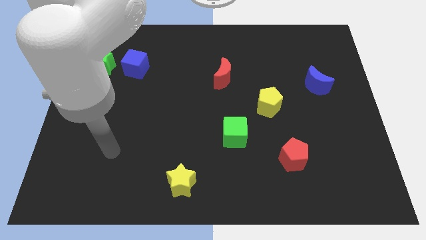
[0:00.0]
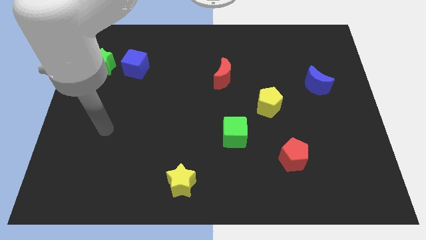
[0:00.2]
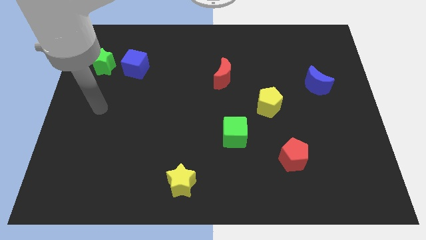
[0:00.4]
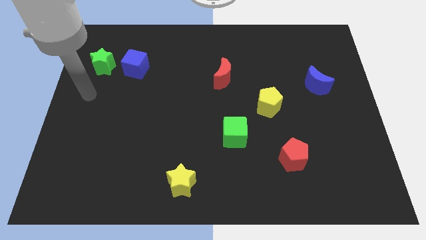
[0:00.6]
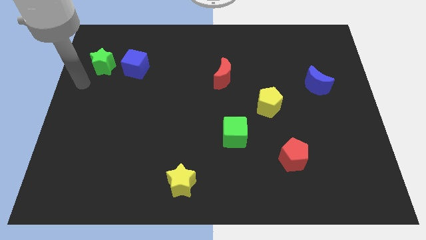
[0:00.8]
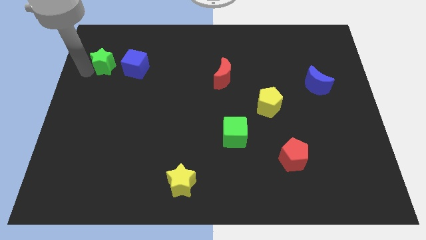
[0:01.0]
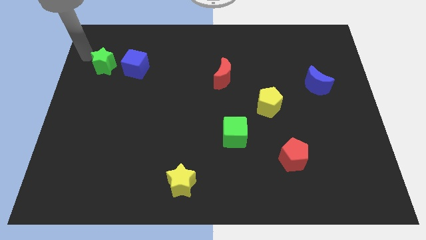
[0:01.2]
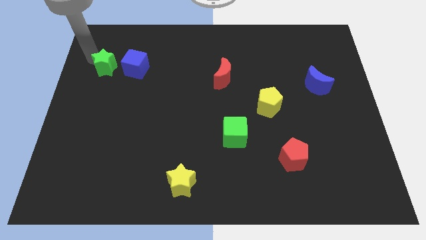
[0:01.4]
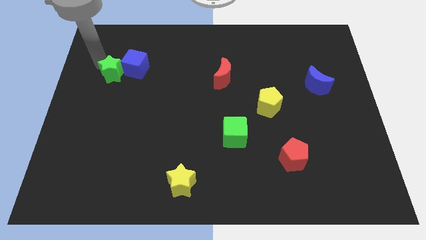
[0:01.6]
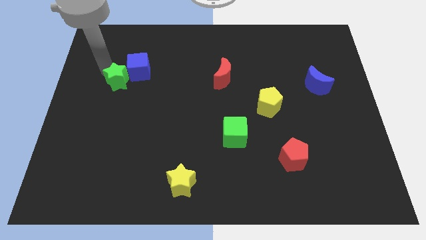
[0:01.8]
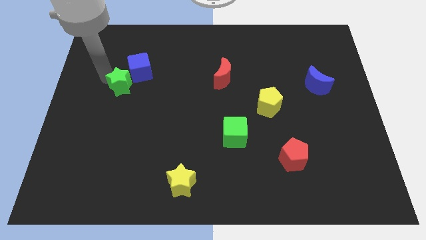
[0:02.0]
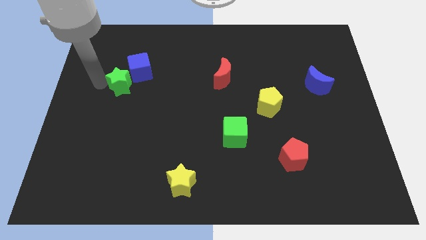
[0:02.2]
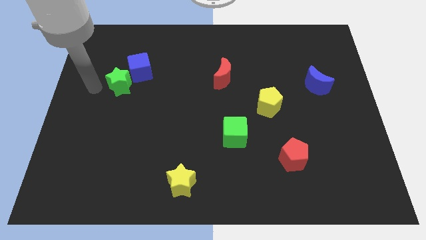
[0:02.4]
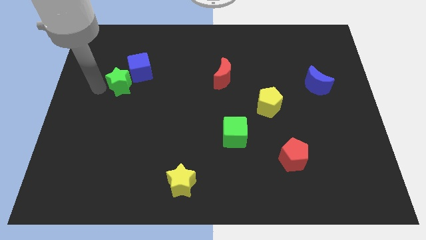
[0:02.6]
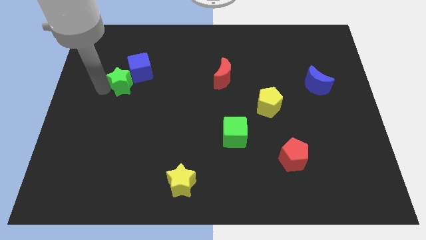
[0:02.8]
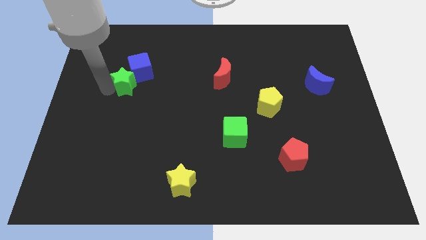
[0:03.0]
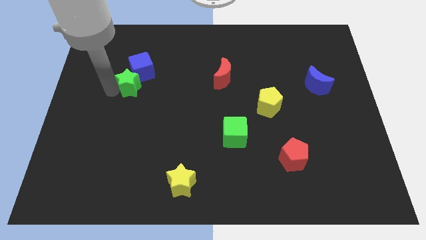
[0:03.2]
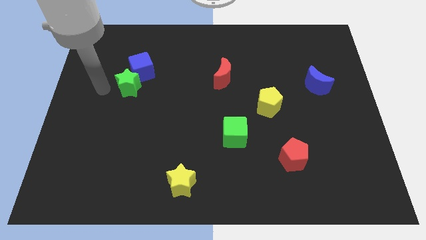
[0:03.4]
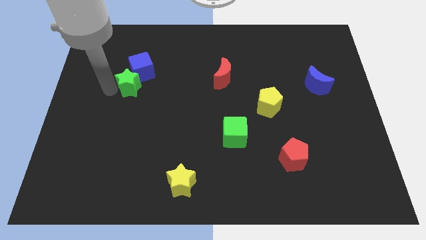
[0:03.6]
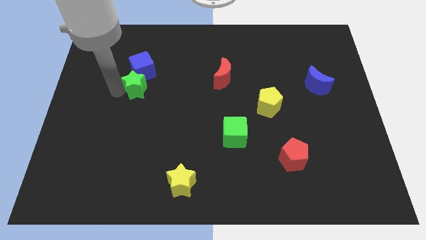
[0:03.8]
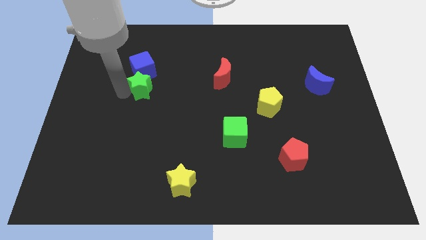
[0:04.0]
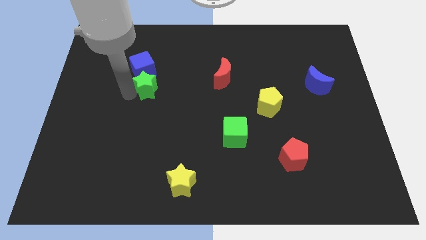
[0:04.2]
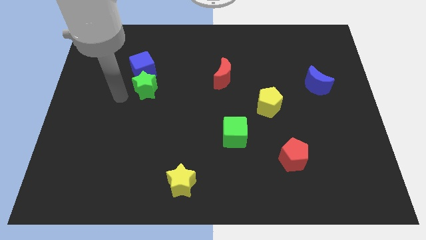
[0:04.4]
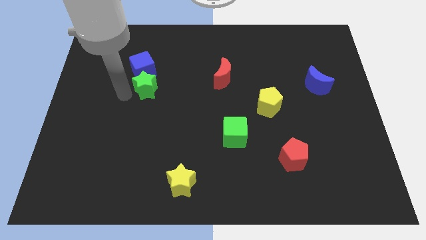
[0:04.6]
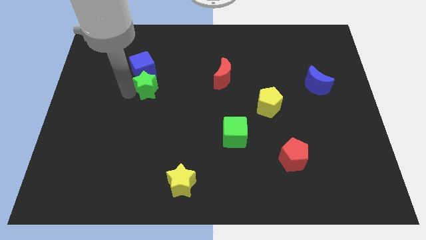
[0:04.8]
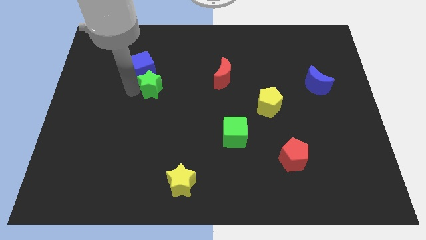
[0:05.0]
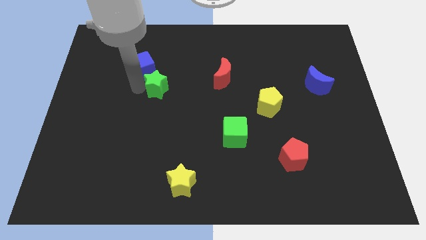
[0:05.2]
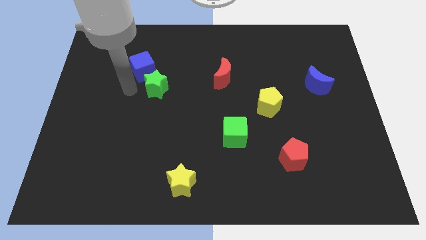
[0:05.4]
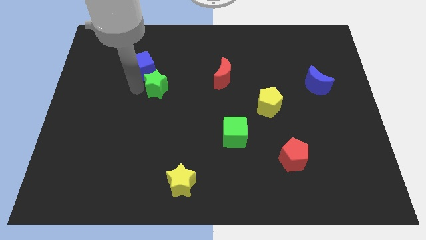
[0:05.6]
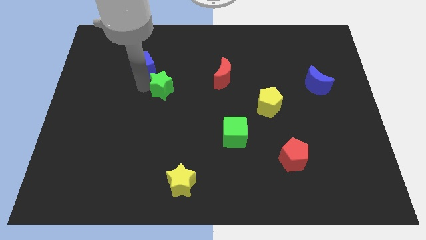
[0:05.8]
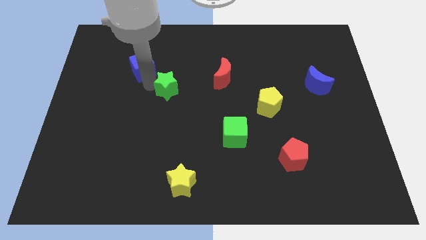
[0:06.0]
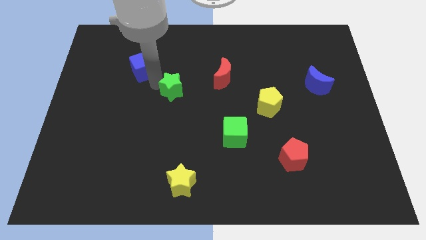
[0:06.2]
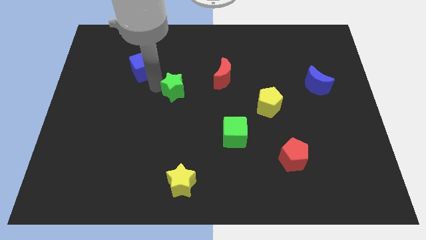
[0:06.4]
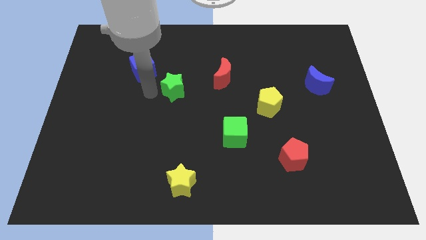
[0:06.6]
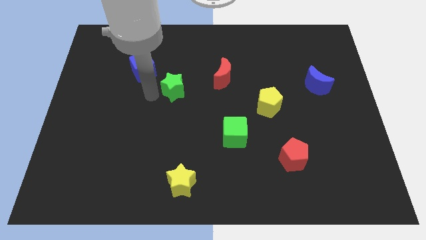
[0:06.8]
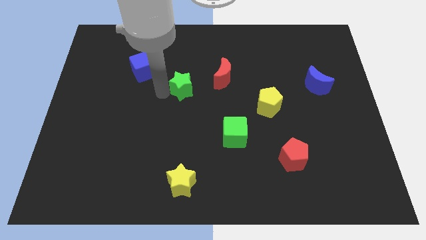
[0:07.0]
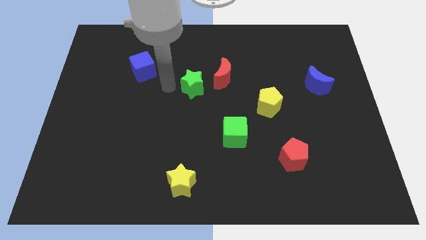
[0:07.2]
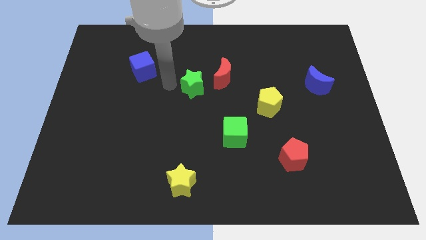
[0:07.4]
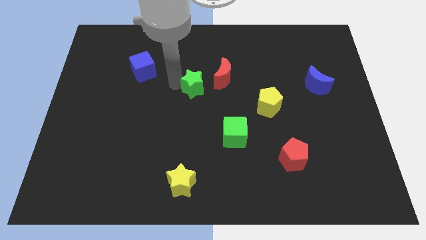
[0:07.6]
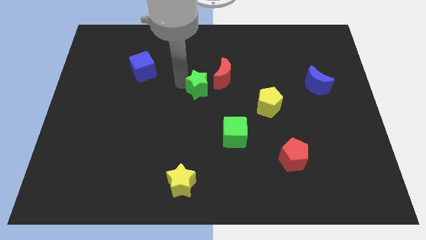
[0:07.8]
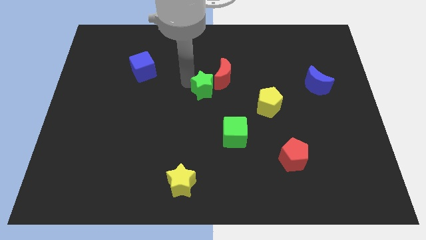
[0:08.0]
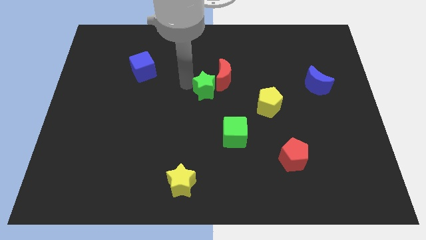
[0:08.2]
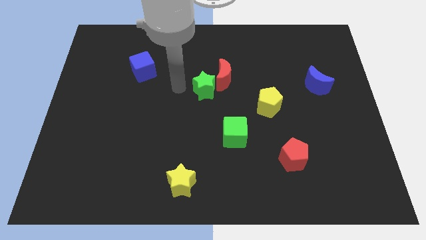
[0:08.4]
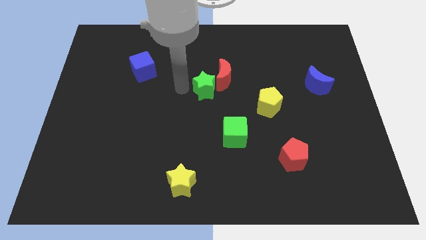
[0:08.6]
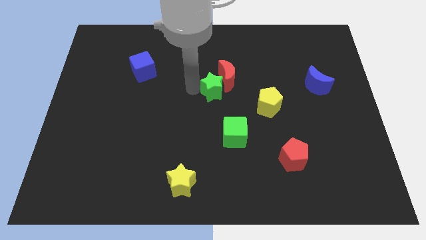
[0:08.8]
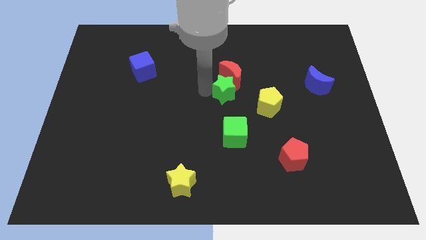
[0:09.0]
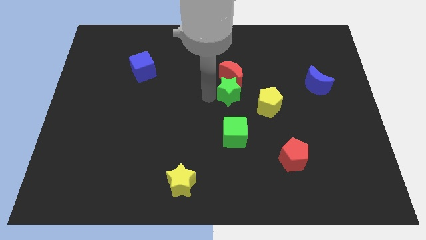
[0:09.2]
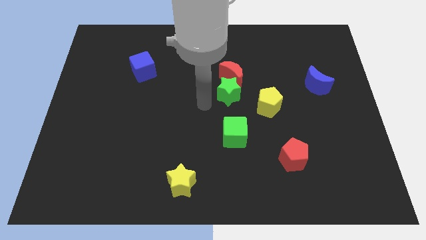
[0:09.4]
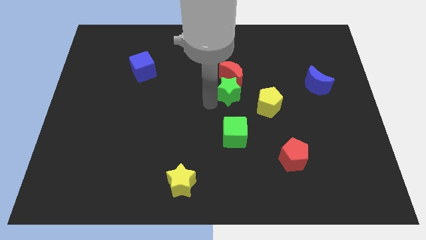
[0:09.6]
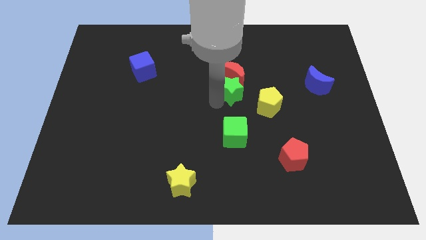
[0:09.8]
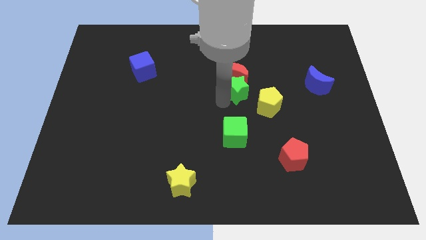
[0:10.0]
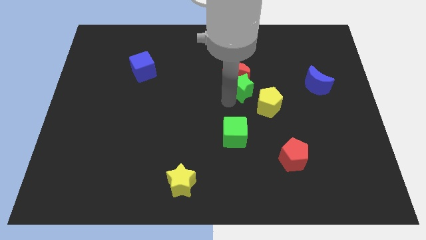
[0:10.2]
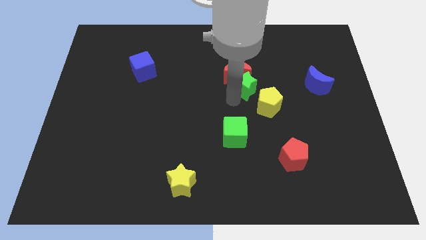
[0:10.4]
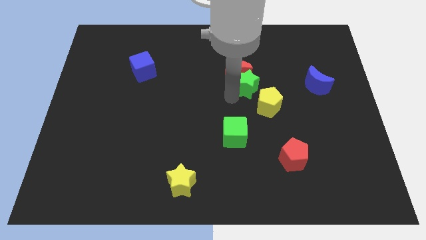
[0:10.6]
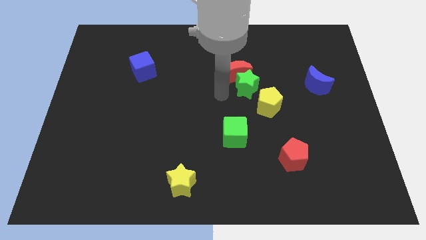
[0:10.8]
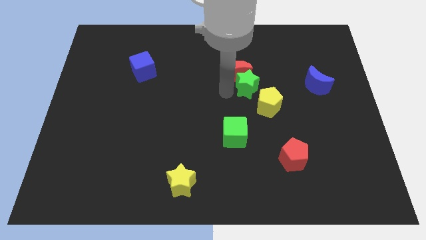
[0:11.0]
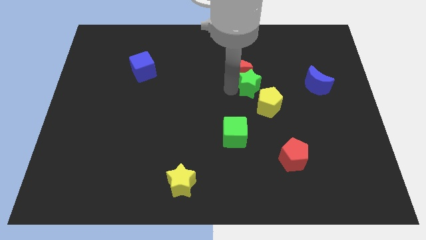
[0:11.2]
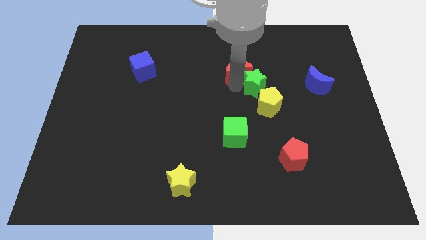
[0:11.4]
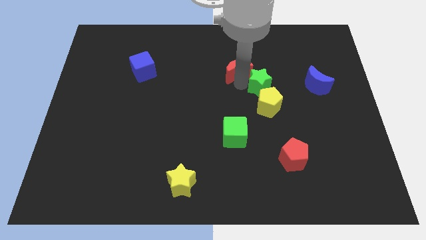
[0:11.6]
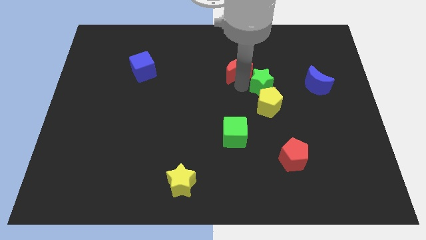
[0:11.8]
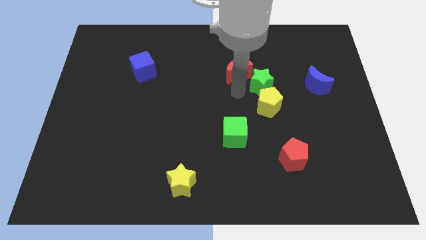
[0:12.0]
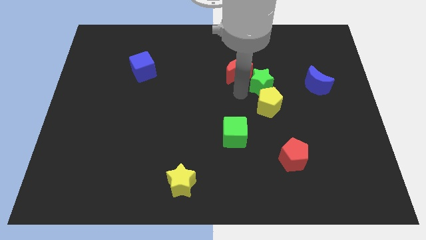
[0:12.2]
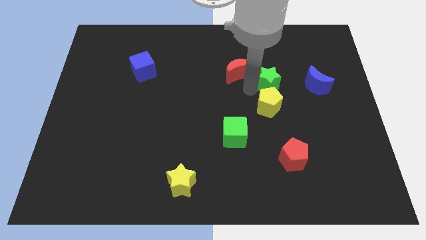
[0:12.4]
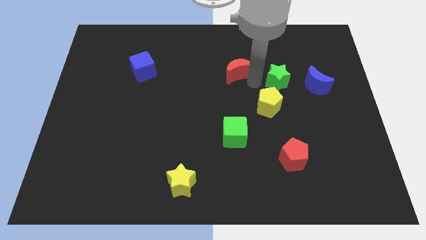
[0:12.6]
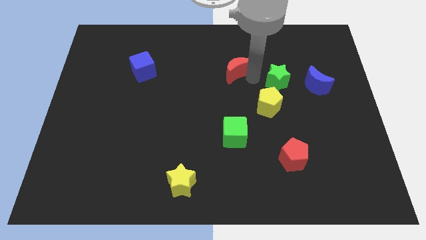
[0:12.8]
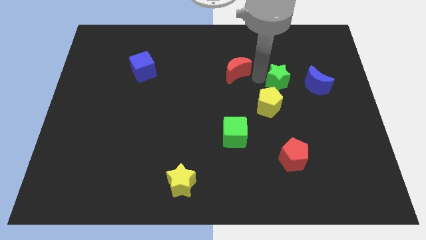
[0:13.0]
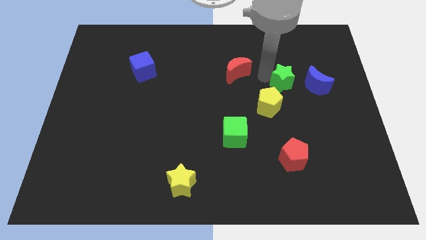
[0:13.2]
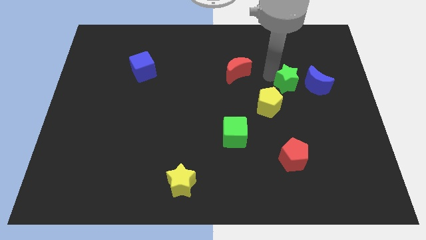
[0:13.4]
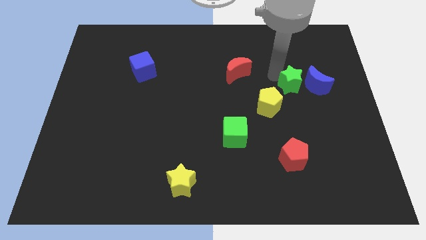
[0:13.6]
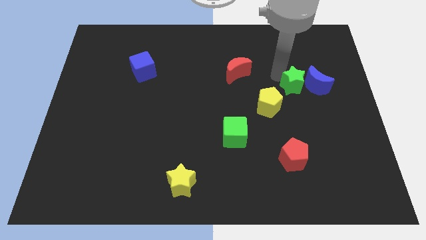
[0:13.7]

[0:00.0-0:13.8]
move the green star towards the blue moon
